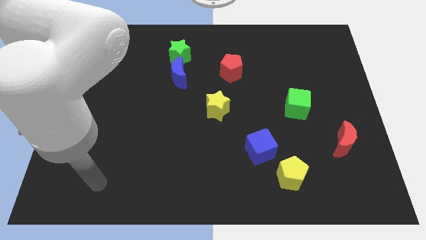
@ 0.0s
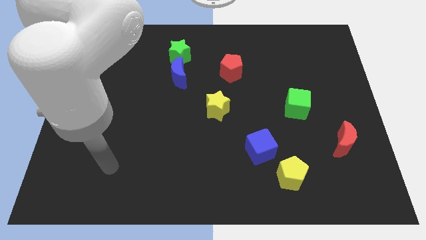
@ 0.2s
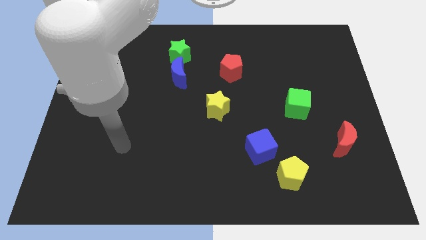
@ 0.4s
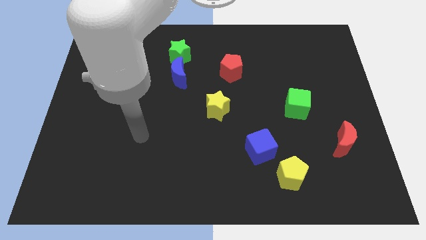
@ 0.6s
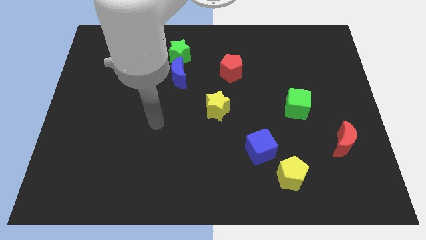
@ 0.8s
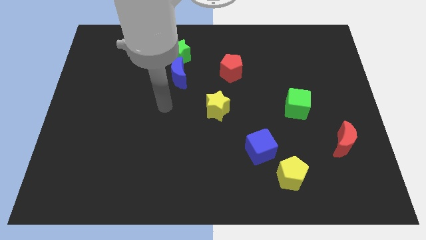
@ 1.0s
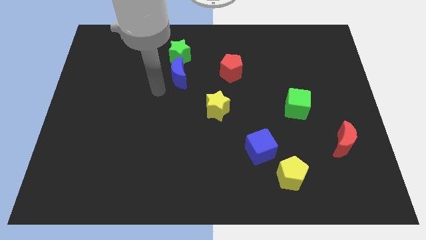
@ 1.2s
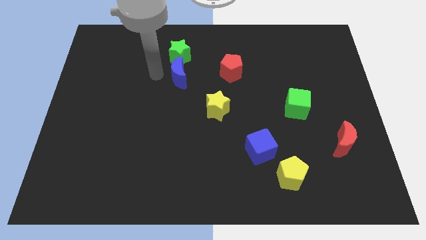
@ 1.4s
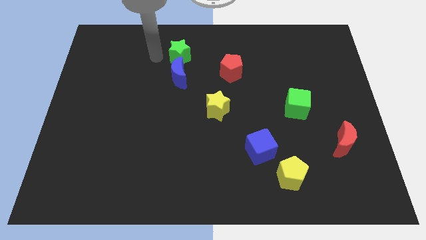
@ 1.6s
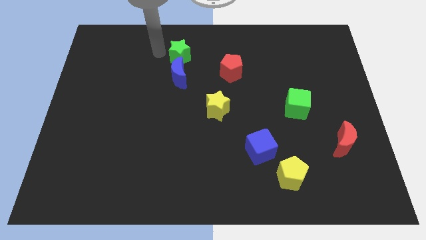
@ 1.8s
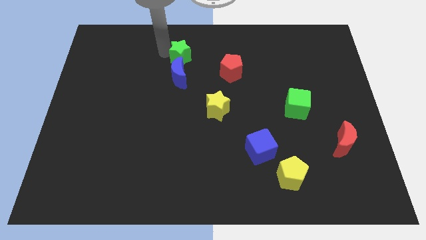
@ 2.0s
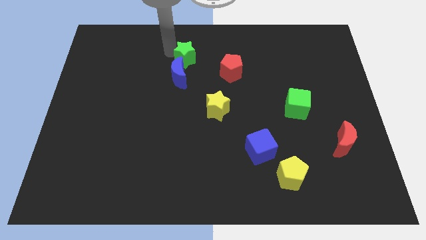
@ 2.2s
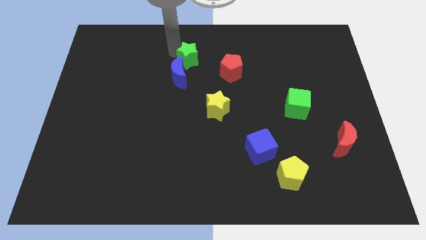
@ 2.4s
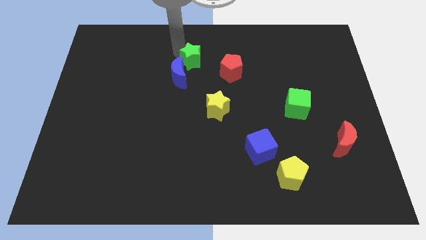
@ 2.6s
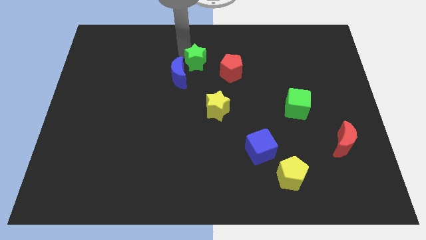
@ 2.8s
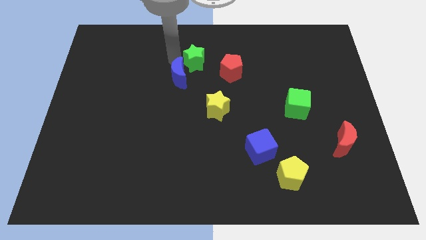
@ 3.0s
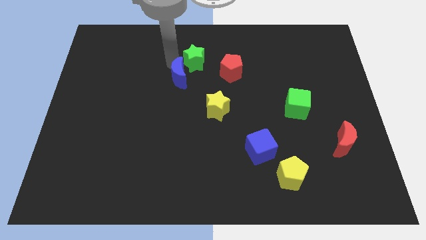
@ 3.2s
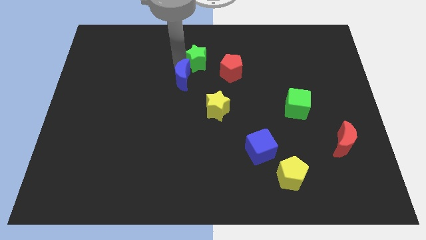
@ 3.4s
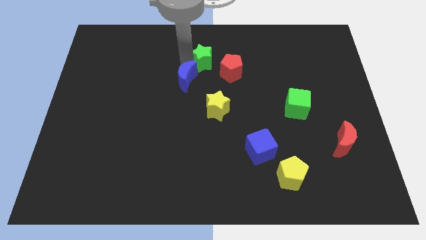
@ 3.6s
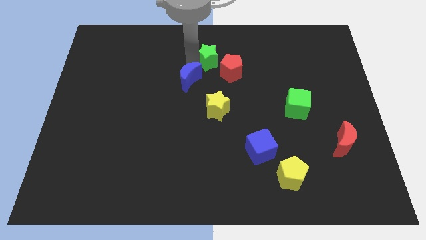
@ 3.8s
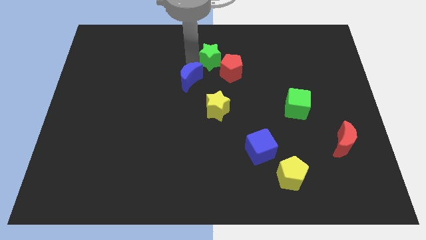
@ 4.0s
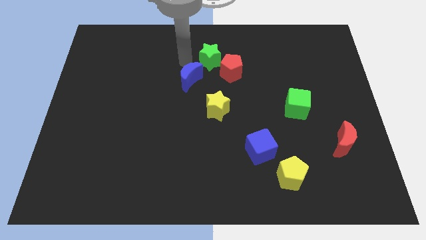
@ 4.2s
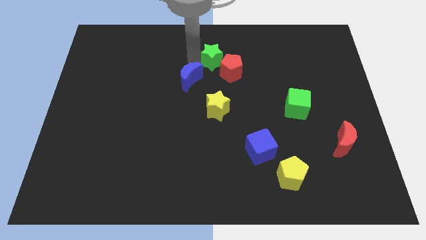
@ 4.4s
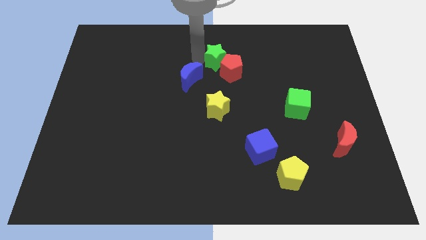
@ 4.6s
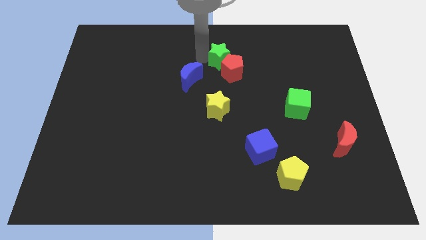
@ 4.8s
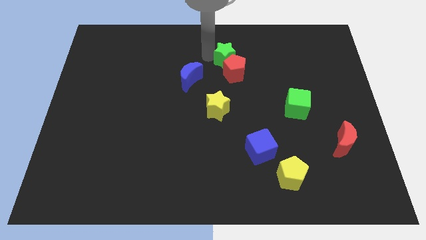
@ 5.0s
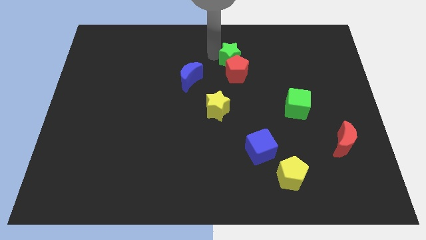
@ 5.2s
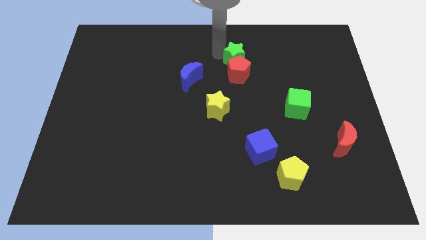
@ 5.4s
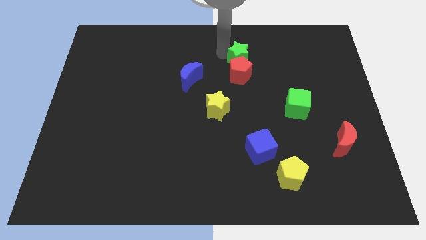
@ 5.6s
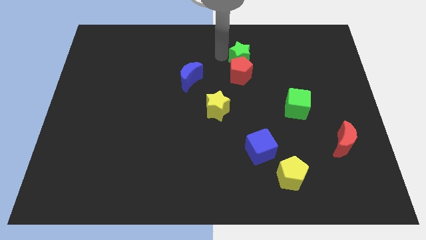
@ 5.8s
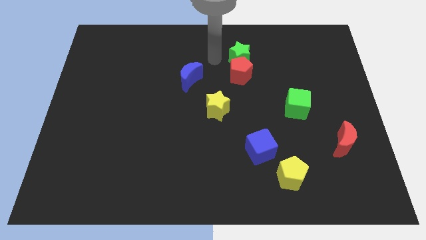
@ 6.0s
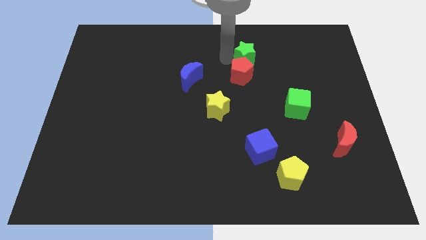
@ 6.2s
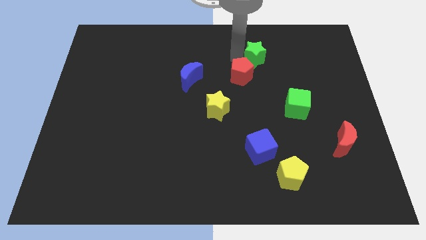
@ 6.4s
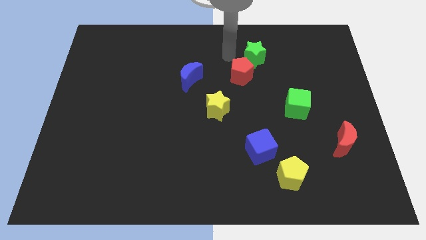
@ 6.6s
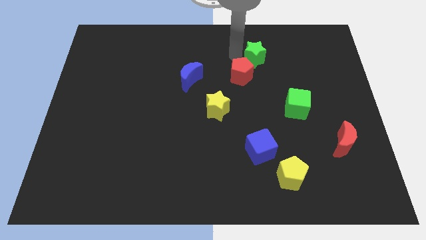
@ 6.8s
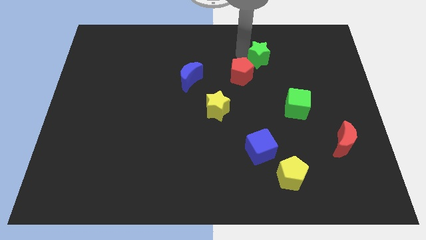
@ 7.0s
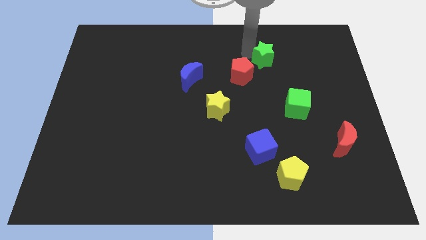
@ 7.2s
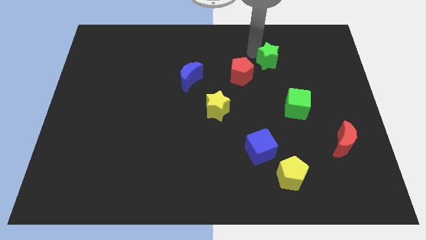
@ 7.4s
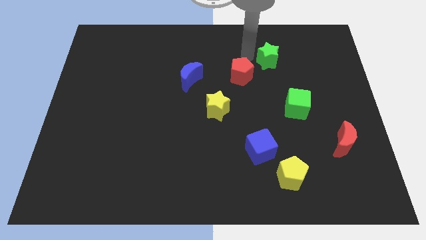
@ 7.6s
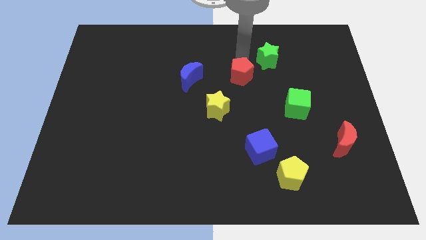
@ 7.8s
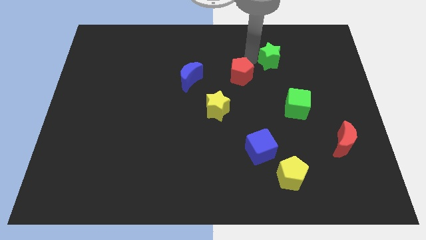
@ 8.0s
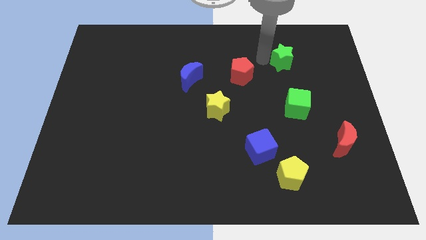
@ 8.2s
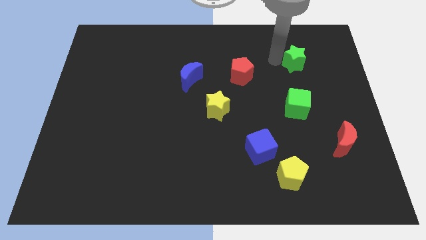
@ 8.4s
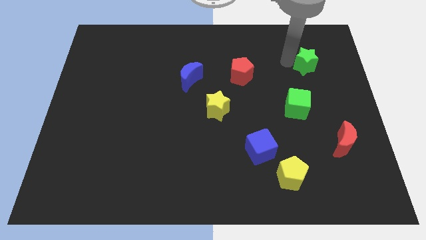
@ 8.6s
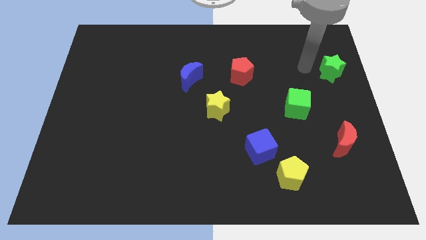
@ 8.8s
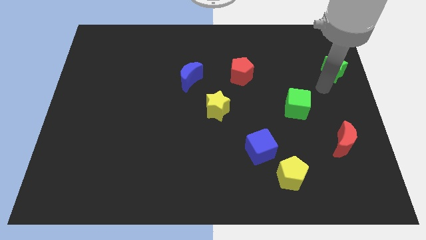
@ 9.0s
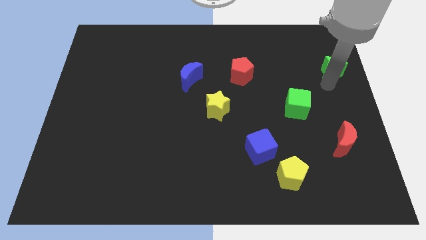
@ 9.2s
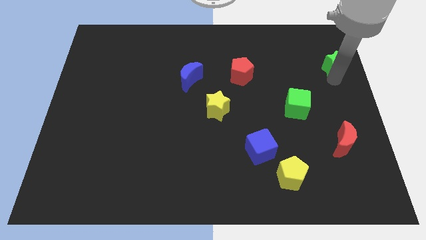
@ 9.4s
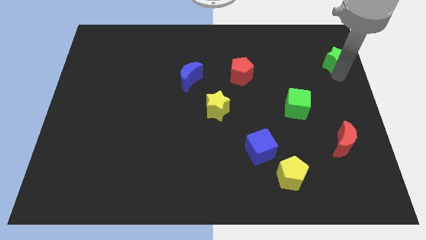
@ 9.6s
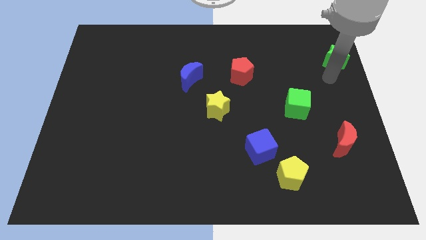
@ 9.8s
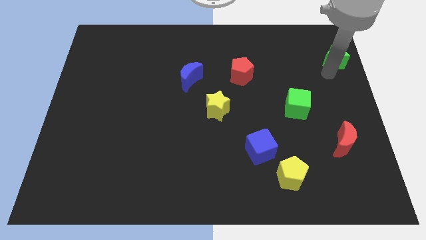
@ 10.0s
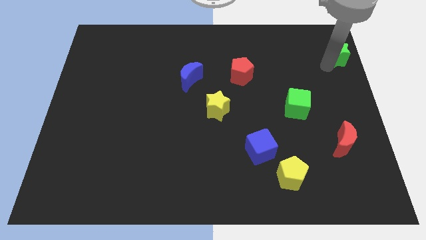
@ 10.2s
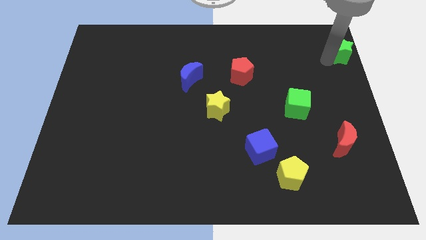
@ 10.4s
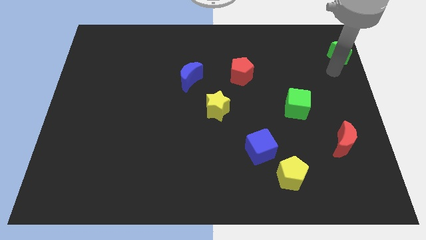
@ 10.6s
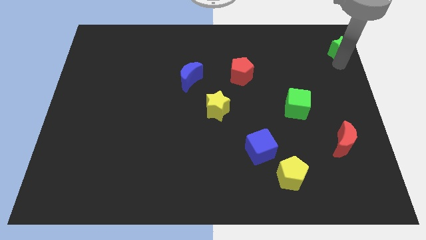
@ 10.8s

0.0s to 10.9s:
push the green star to the top right corner

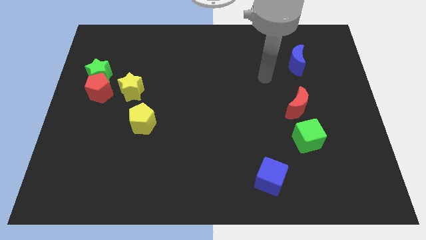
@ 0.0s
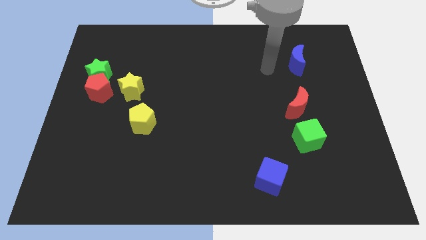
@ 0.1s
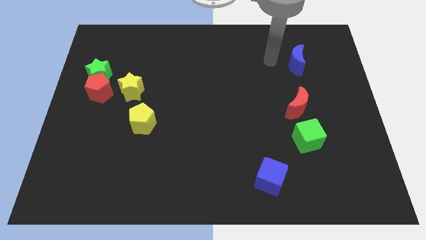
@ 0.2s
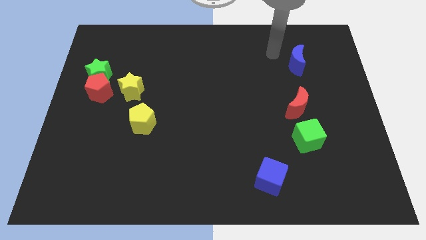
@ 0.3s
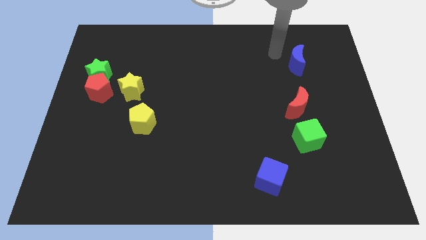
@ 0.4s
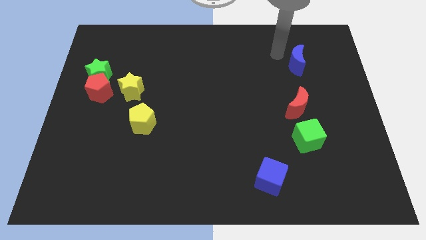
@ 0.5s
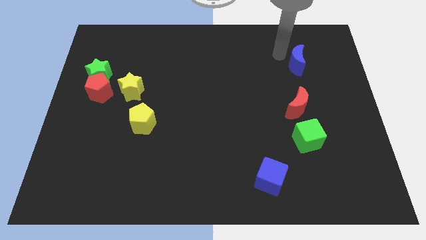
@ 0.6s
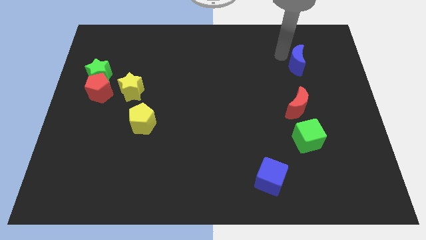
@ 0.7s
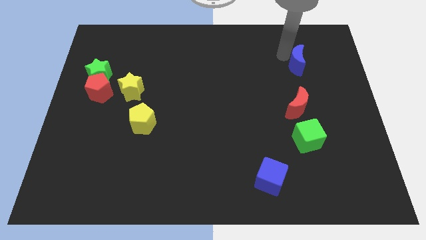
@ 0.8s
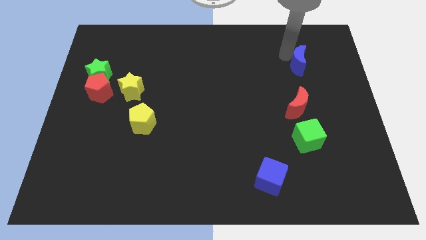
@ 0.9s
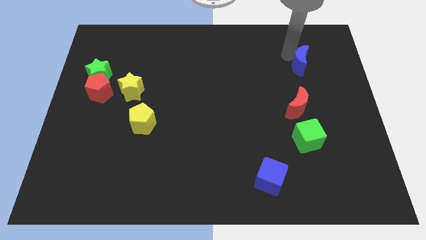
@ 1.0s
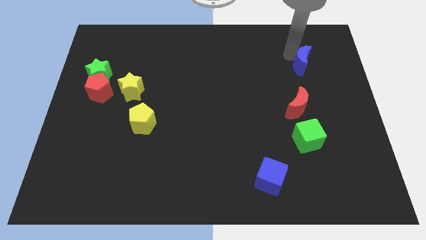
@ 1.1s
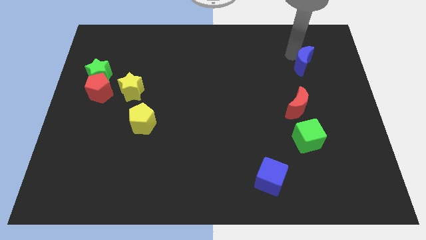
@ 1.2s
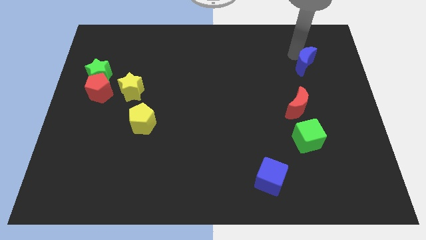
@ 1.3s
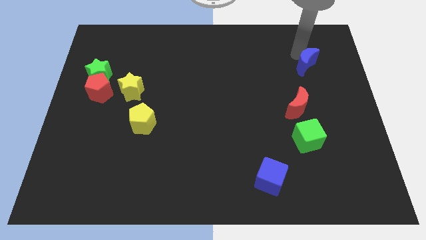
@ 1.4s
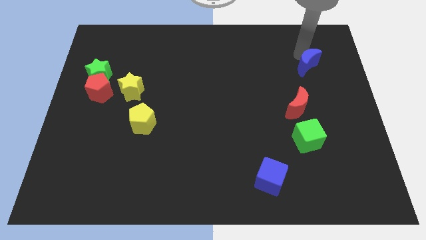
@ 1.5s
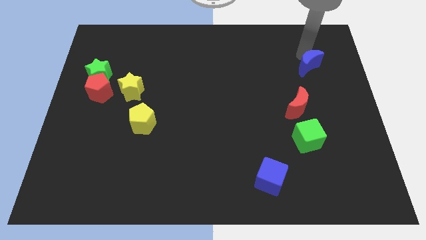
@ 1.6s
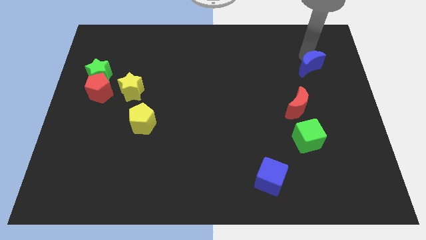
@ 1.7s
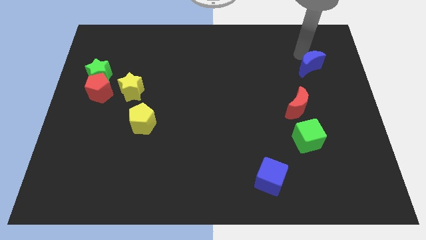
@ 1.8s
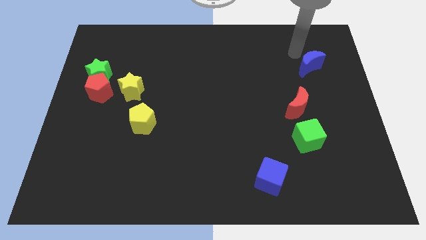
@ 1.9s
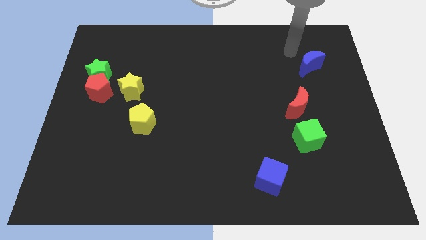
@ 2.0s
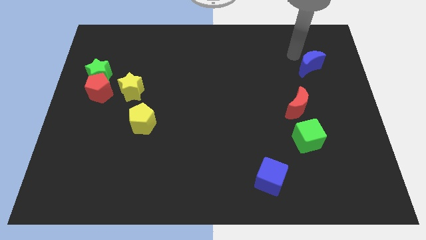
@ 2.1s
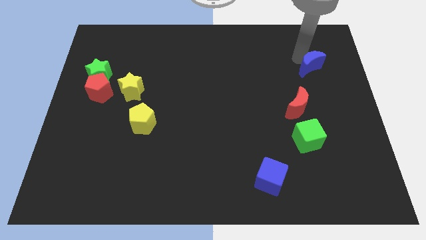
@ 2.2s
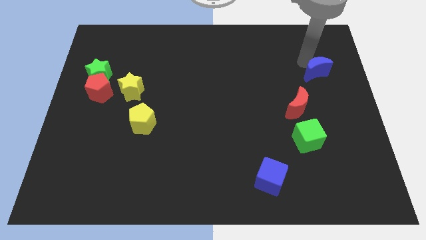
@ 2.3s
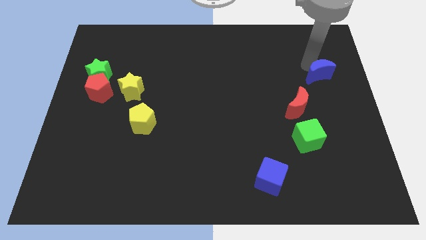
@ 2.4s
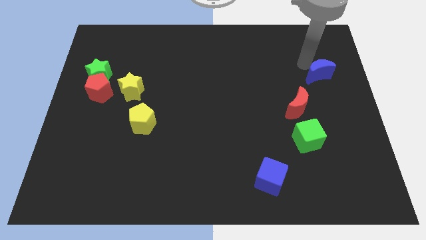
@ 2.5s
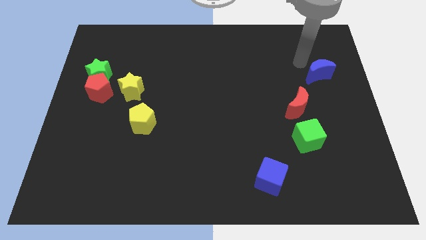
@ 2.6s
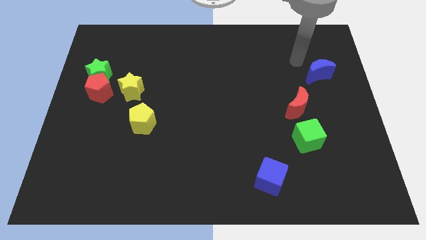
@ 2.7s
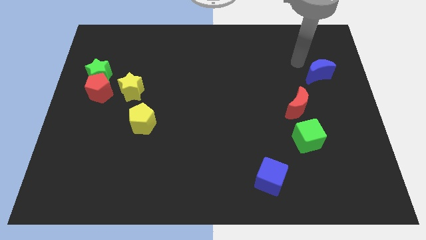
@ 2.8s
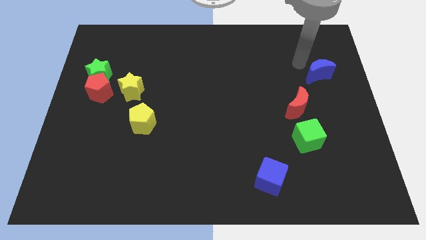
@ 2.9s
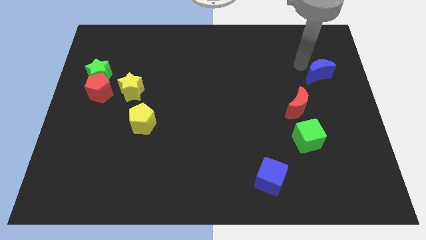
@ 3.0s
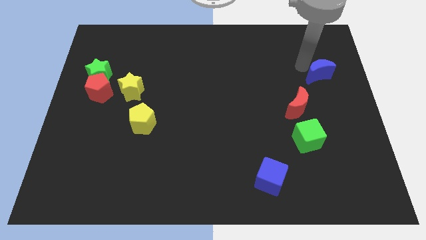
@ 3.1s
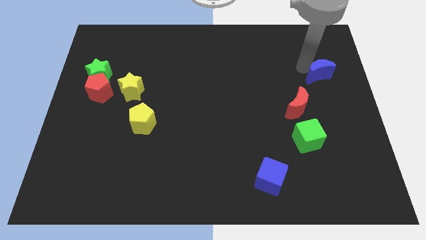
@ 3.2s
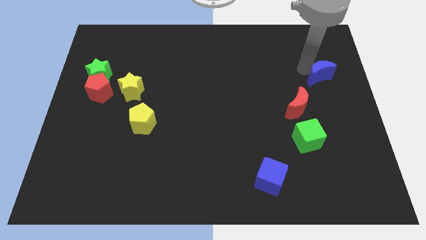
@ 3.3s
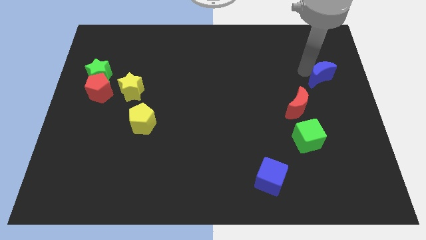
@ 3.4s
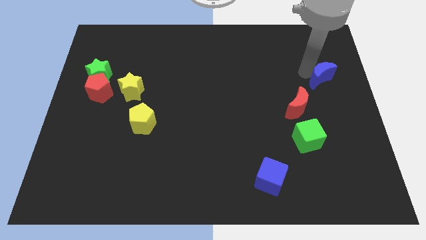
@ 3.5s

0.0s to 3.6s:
move the blue moon to the center right
